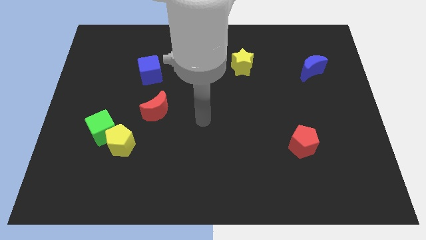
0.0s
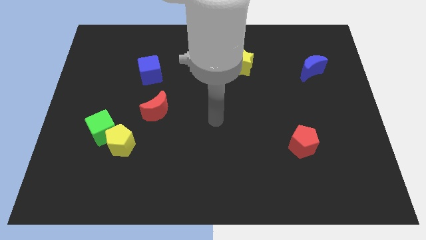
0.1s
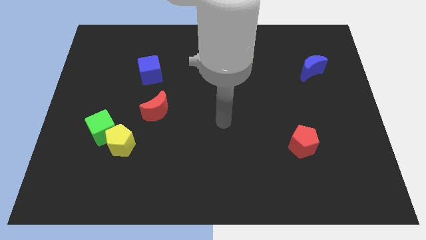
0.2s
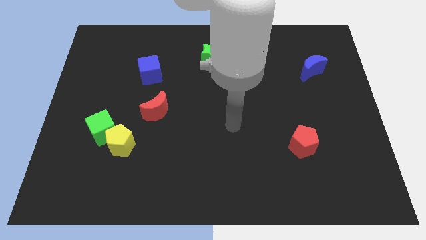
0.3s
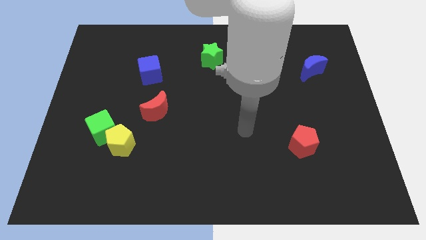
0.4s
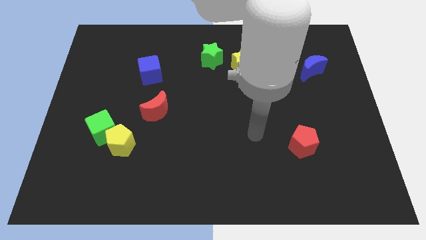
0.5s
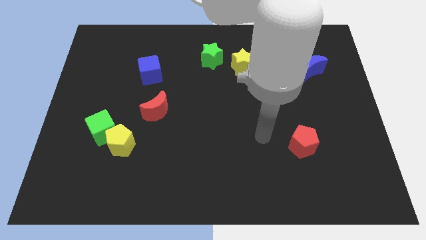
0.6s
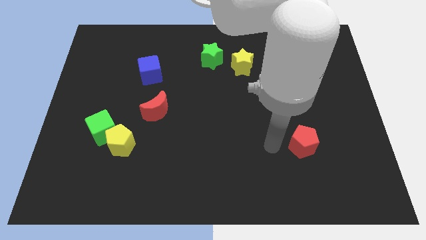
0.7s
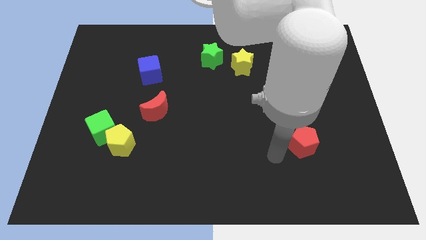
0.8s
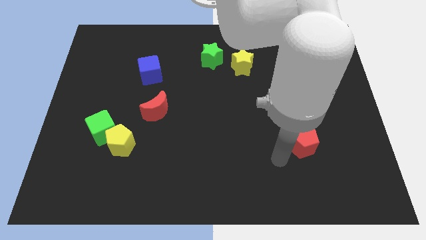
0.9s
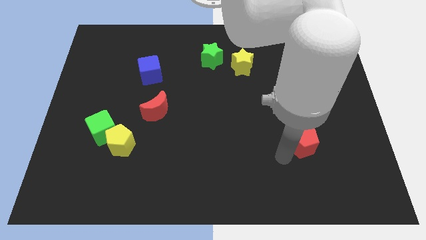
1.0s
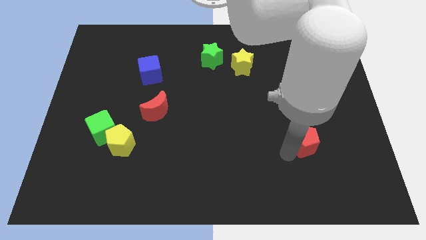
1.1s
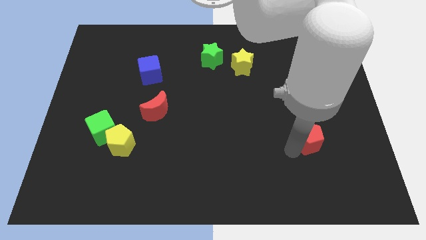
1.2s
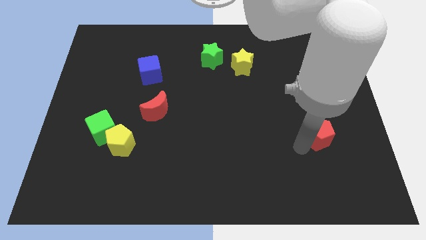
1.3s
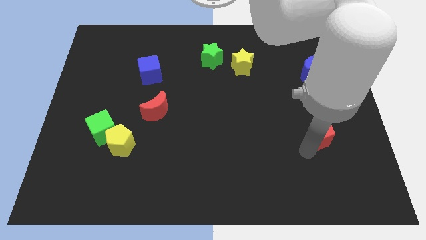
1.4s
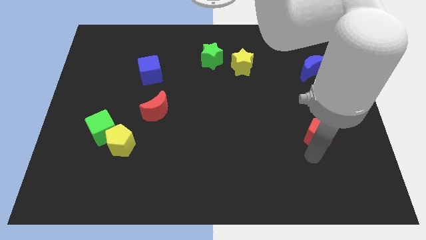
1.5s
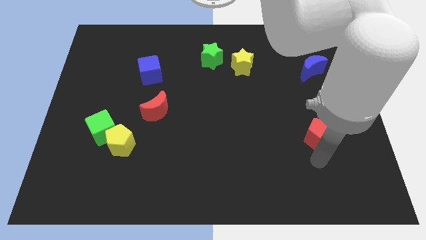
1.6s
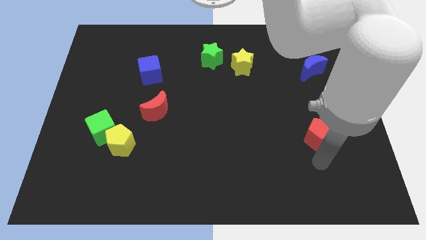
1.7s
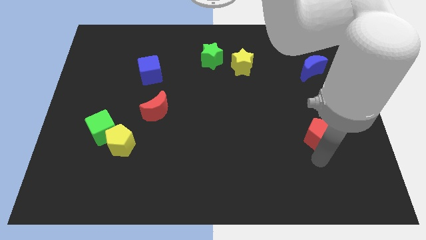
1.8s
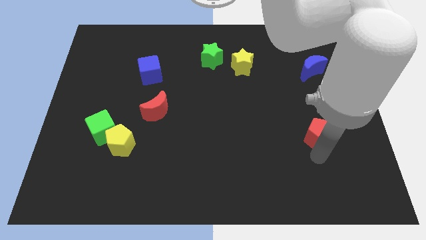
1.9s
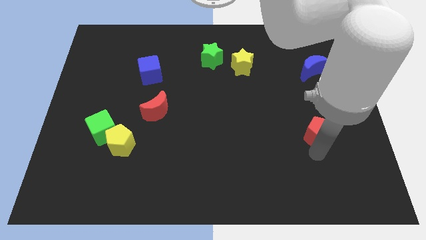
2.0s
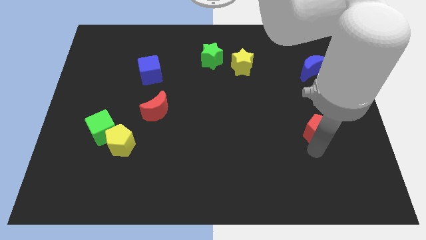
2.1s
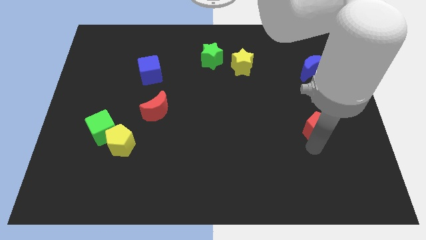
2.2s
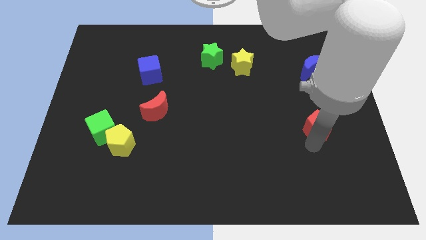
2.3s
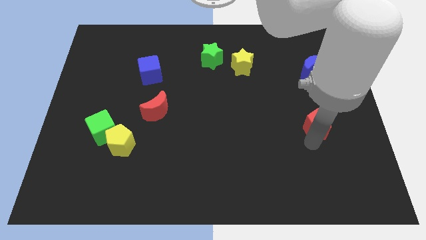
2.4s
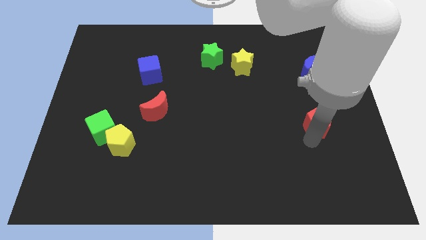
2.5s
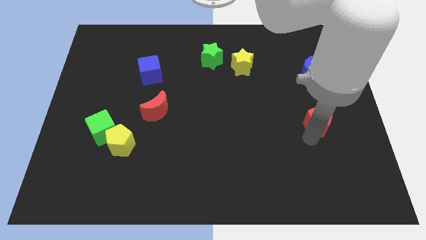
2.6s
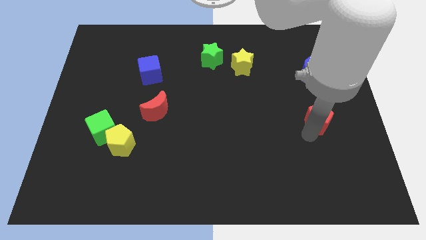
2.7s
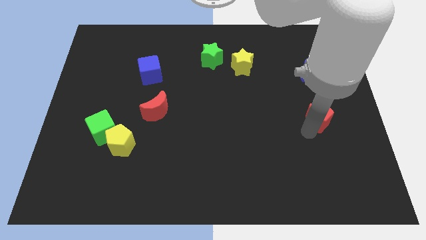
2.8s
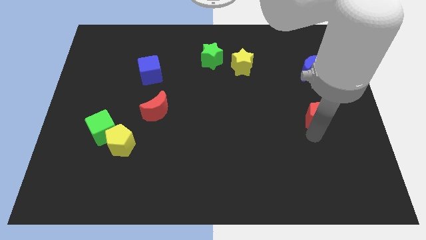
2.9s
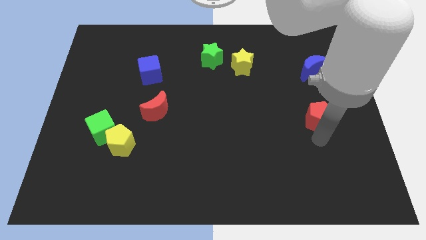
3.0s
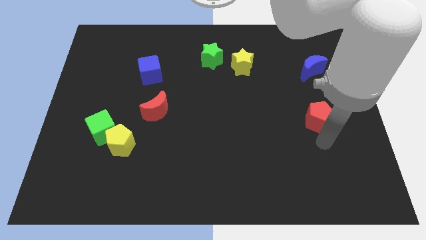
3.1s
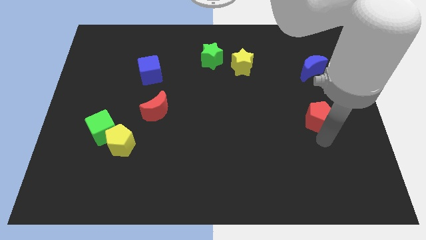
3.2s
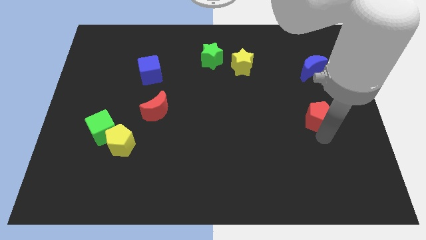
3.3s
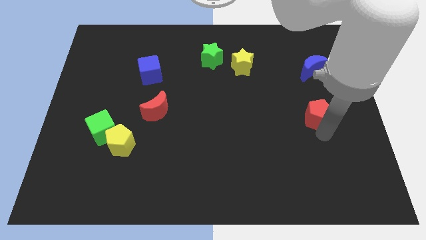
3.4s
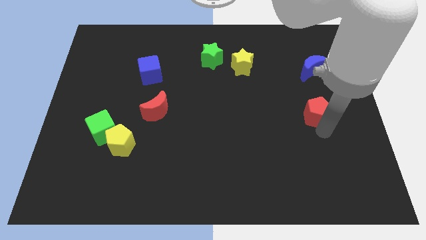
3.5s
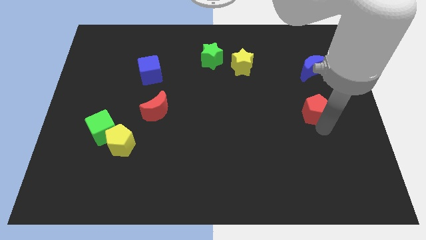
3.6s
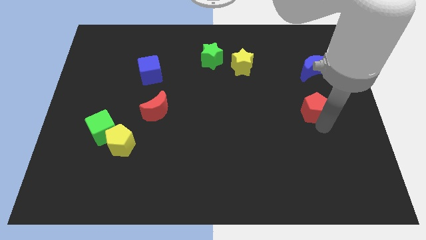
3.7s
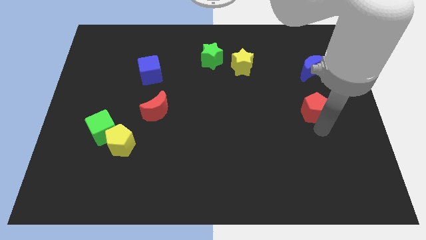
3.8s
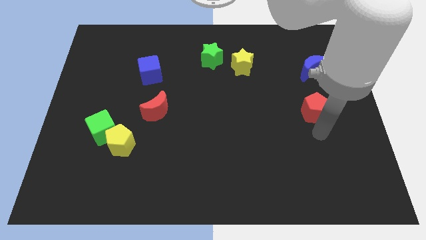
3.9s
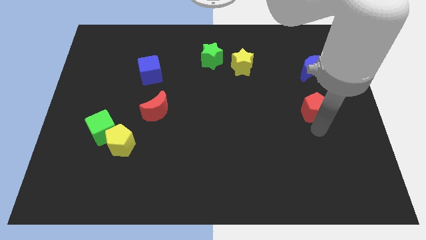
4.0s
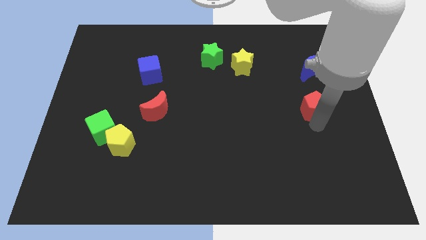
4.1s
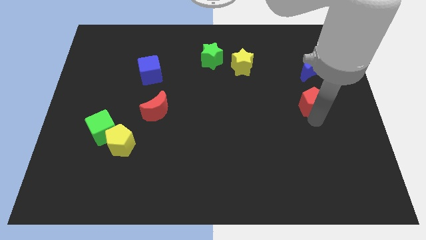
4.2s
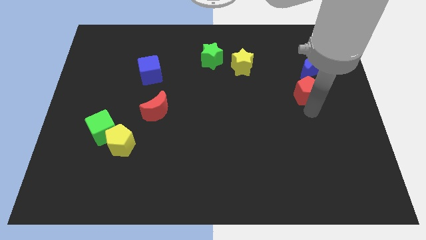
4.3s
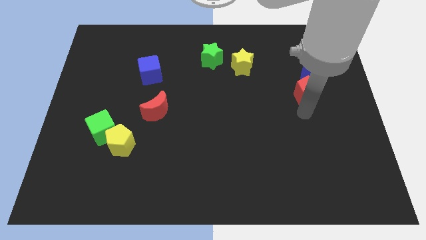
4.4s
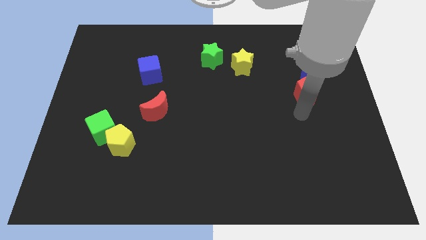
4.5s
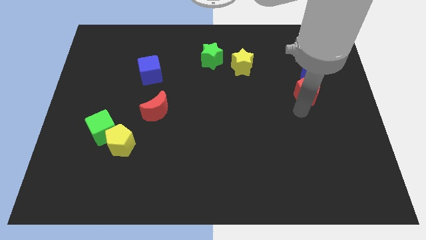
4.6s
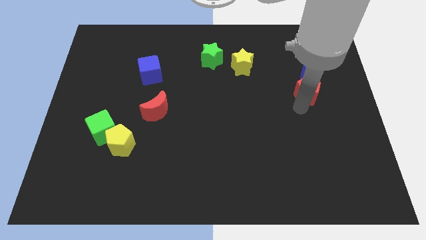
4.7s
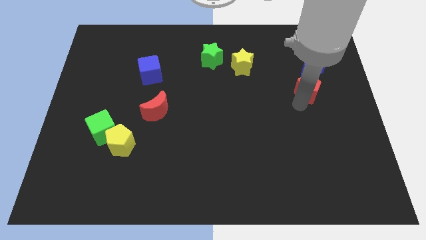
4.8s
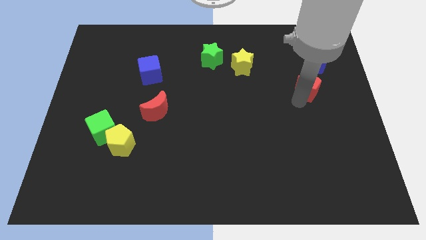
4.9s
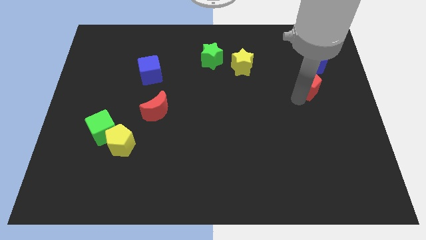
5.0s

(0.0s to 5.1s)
put the red pentagon next to the blue moon
